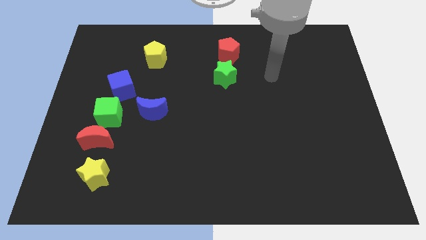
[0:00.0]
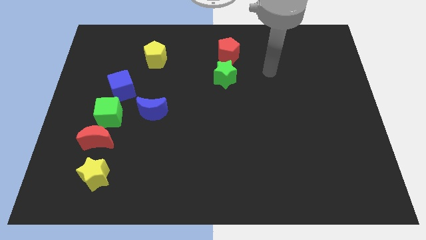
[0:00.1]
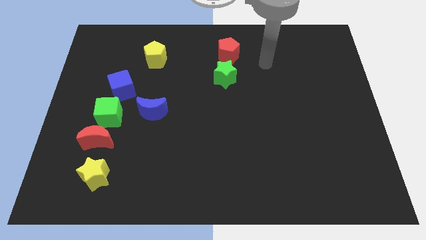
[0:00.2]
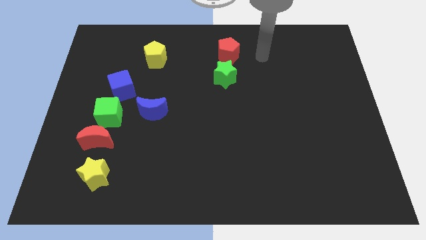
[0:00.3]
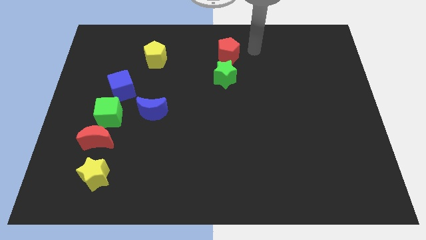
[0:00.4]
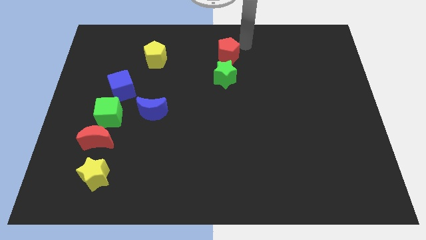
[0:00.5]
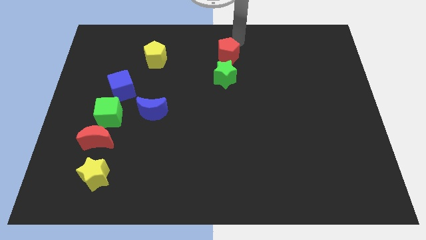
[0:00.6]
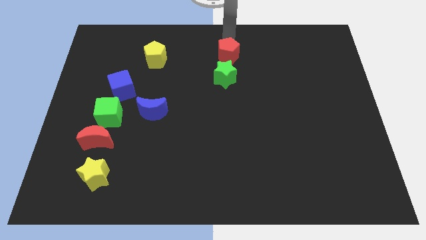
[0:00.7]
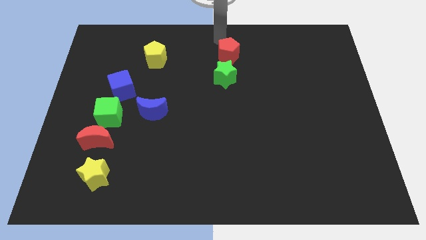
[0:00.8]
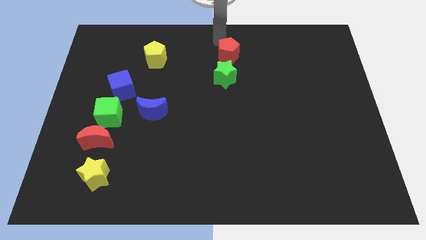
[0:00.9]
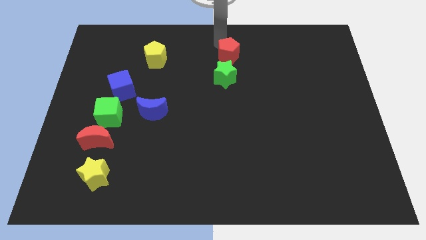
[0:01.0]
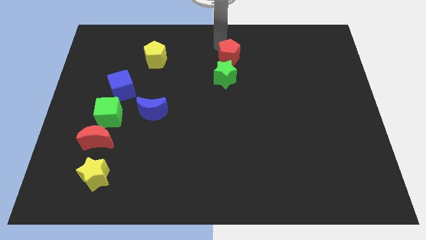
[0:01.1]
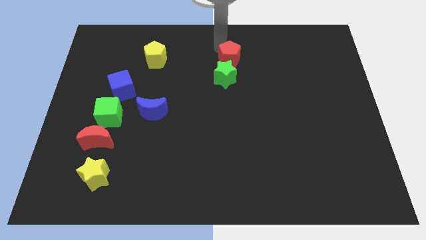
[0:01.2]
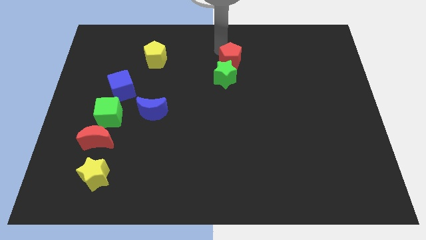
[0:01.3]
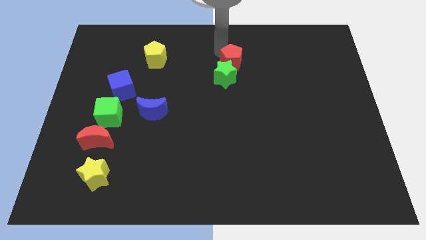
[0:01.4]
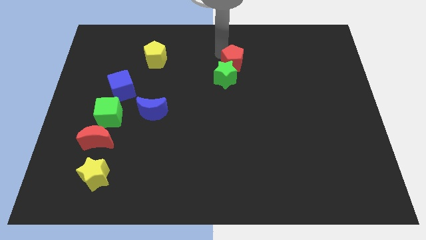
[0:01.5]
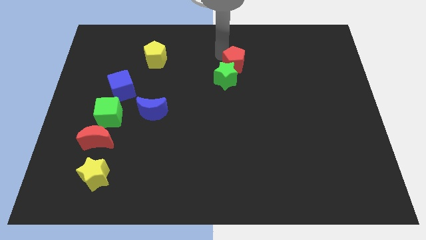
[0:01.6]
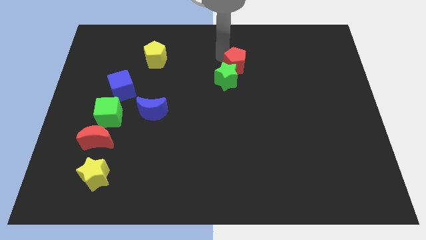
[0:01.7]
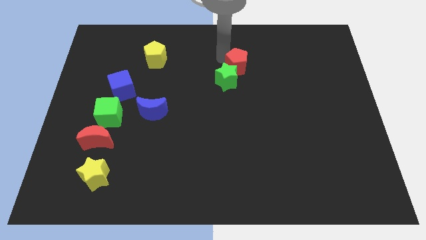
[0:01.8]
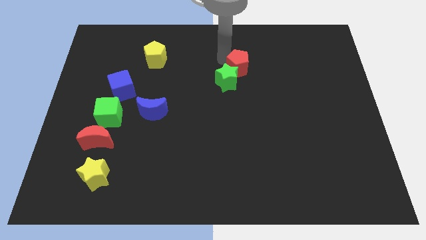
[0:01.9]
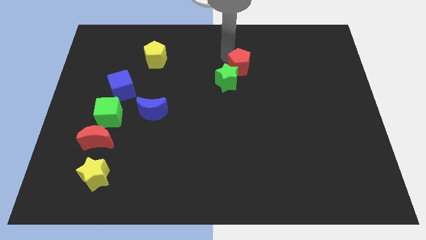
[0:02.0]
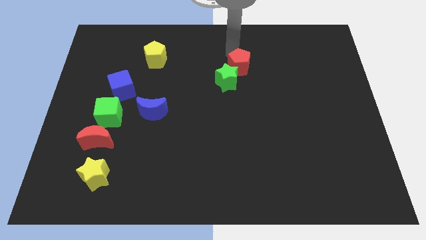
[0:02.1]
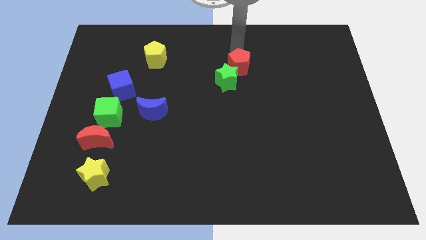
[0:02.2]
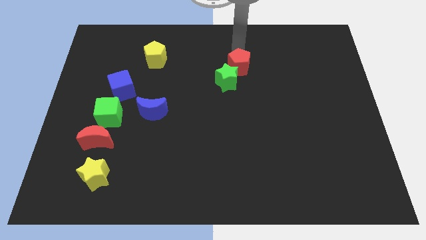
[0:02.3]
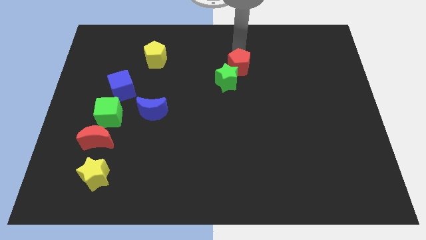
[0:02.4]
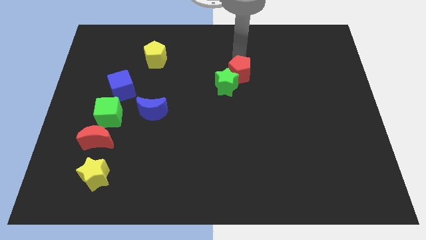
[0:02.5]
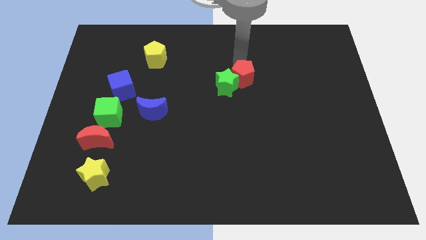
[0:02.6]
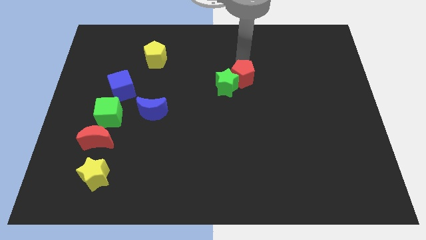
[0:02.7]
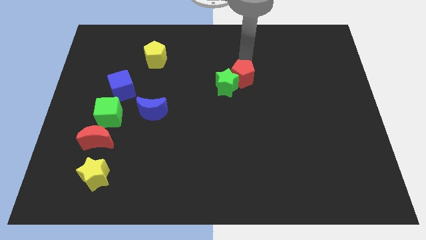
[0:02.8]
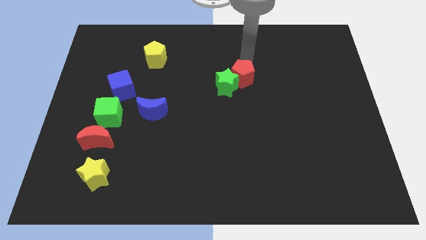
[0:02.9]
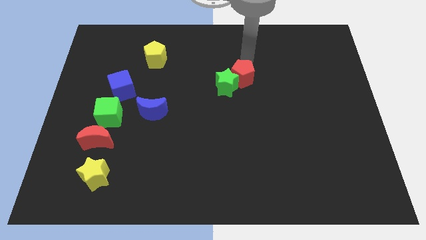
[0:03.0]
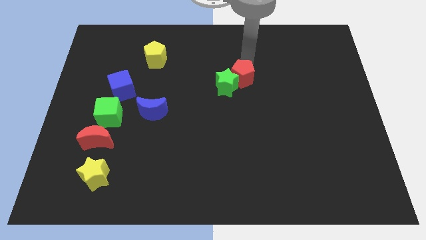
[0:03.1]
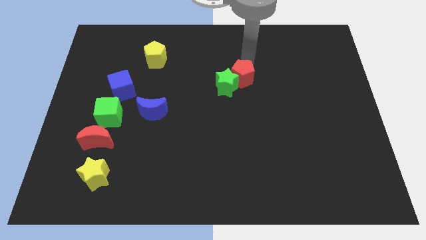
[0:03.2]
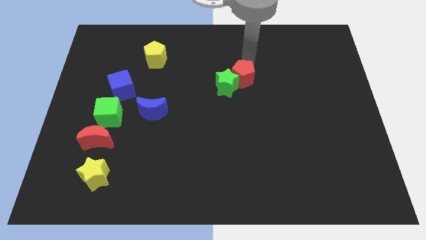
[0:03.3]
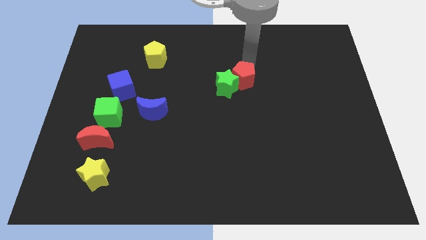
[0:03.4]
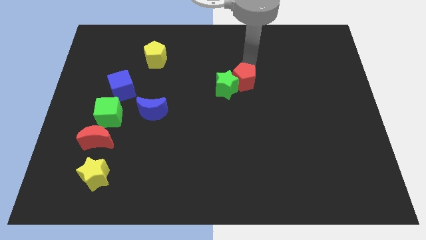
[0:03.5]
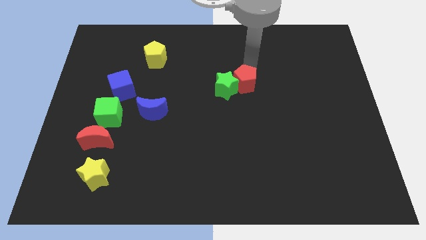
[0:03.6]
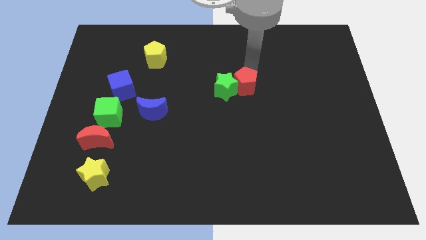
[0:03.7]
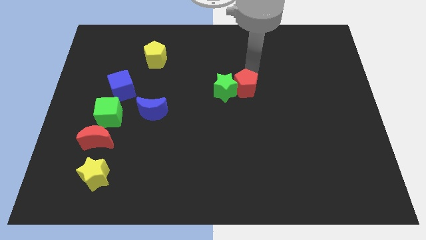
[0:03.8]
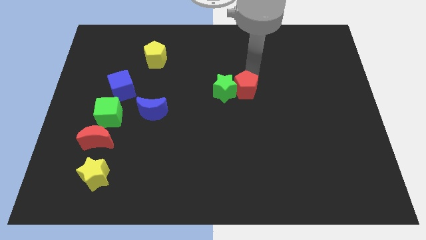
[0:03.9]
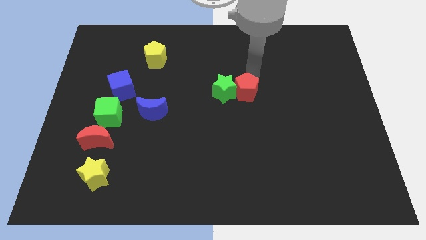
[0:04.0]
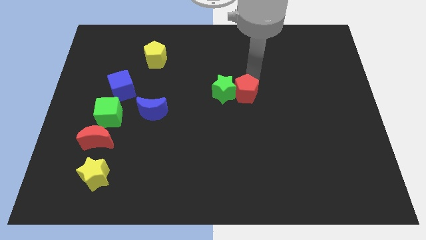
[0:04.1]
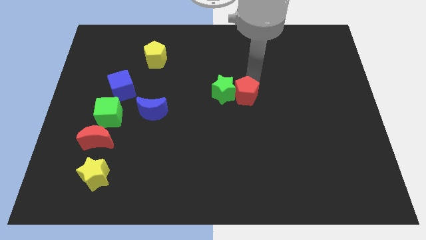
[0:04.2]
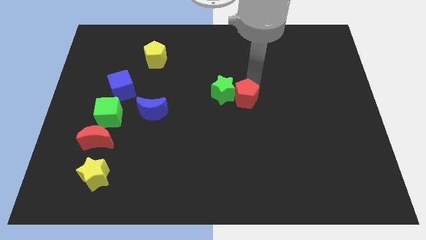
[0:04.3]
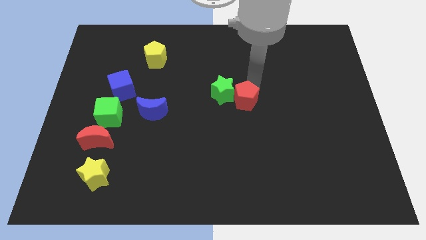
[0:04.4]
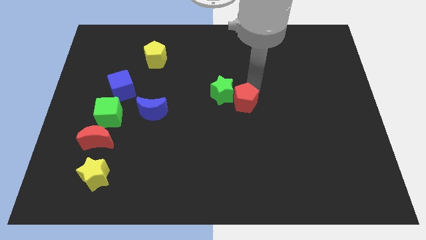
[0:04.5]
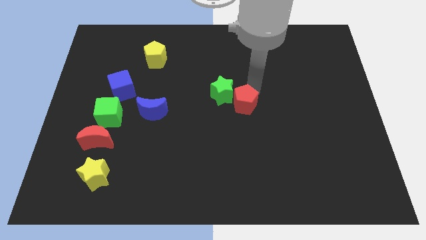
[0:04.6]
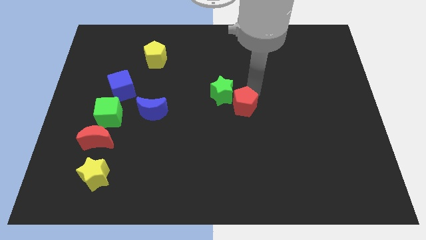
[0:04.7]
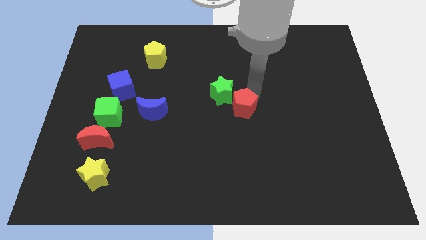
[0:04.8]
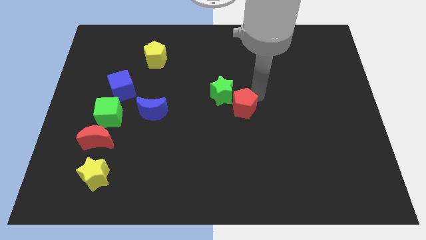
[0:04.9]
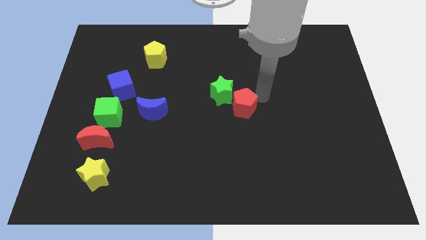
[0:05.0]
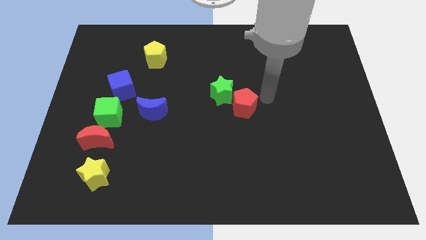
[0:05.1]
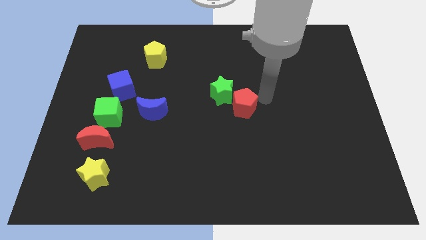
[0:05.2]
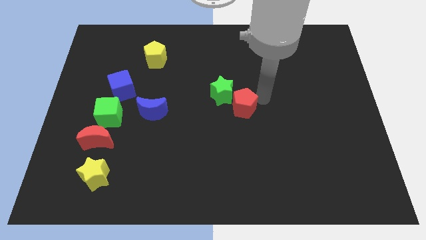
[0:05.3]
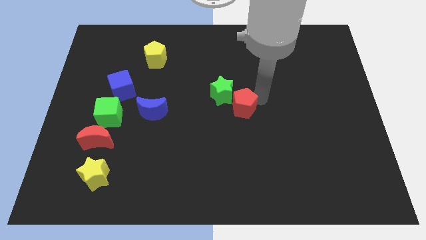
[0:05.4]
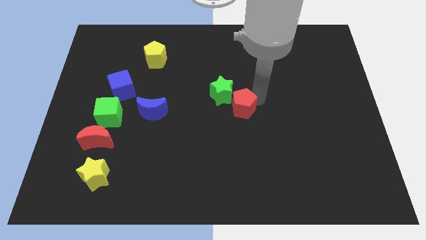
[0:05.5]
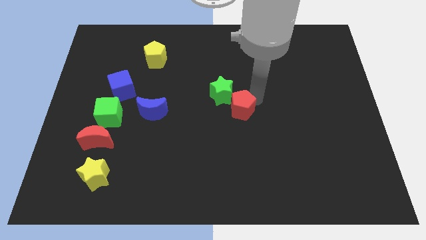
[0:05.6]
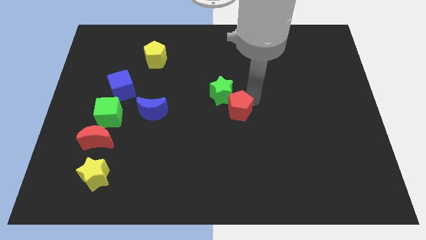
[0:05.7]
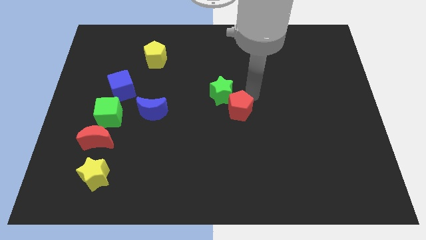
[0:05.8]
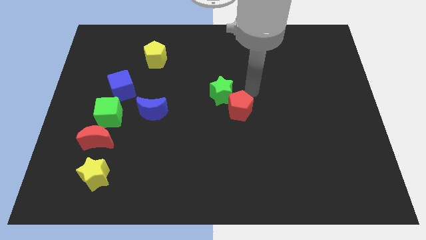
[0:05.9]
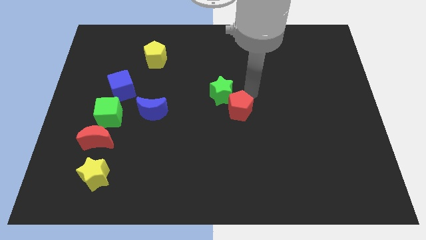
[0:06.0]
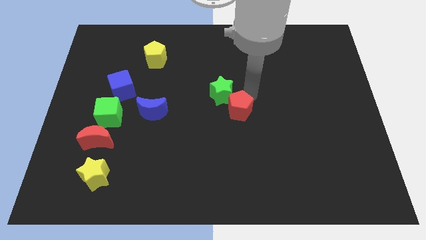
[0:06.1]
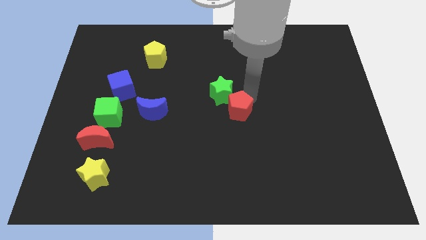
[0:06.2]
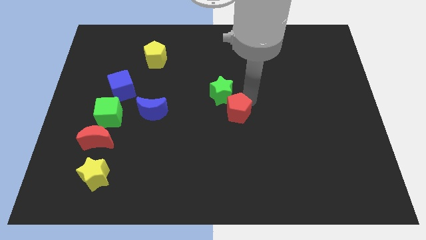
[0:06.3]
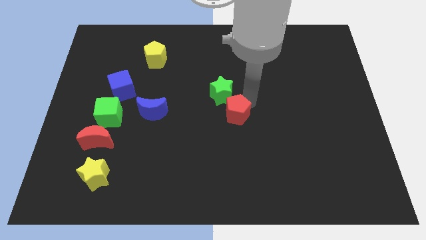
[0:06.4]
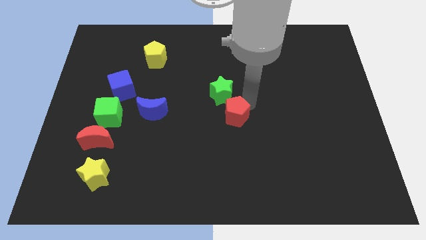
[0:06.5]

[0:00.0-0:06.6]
slide the red pentagon downwards

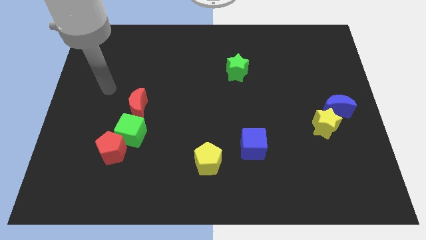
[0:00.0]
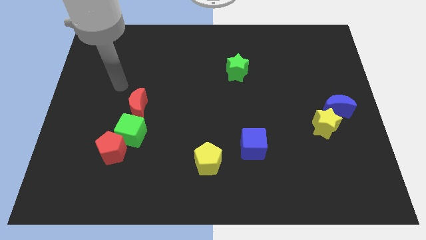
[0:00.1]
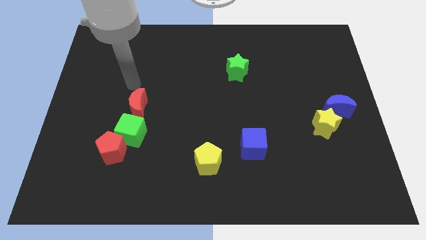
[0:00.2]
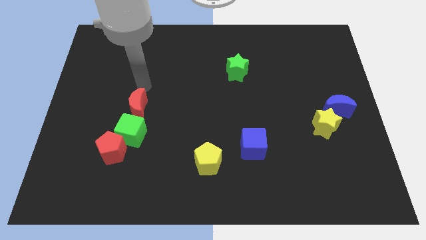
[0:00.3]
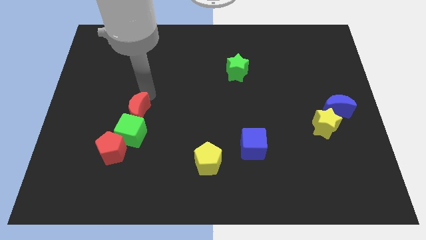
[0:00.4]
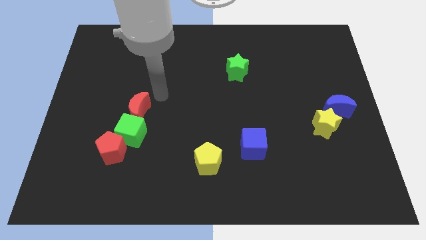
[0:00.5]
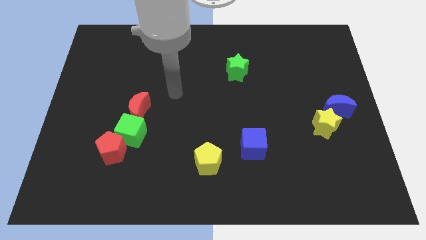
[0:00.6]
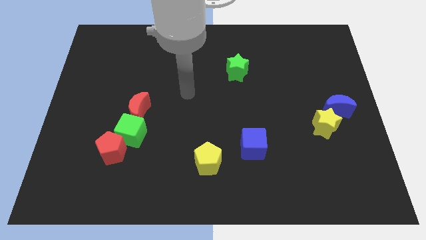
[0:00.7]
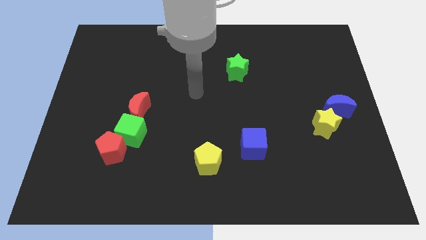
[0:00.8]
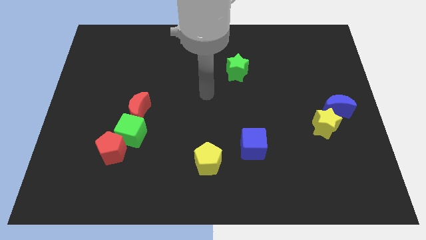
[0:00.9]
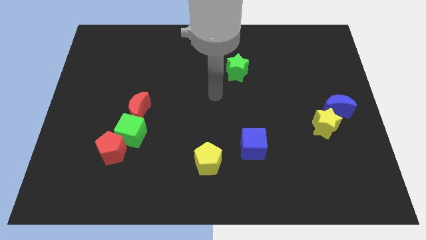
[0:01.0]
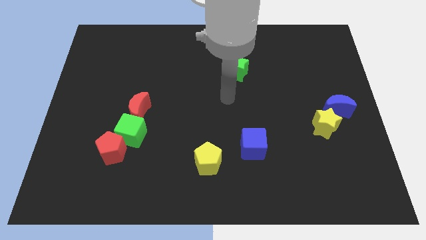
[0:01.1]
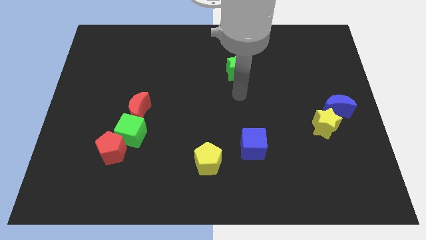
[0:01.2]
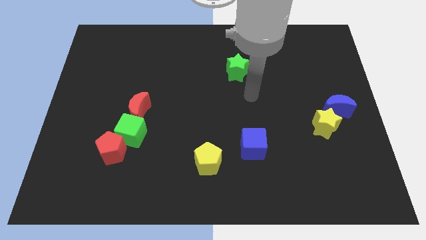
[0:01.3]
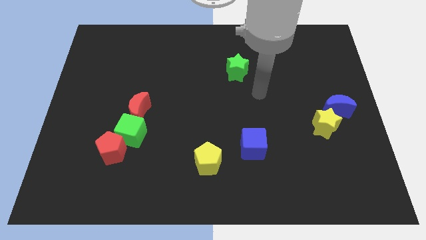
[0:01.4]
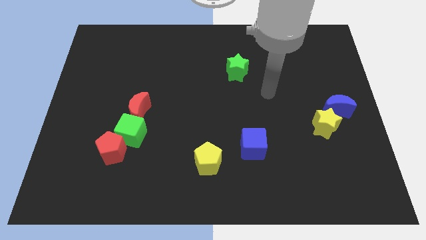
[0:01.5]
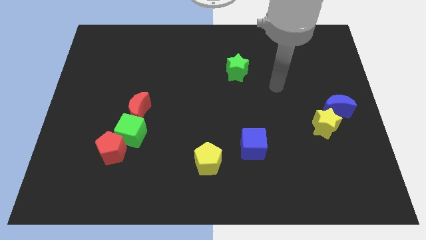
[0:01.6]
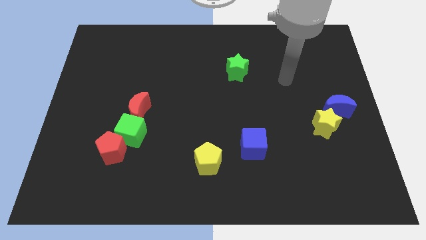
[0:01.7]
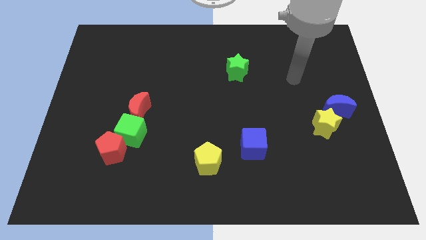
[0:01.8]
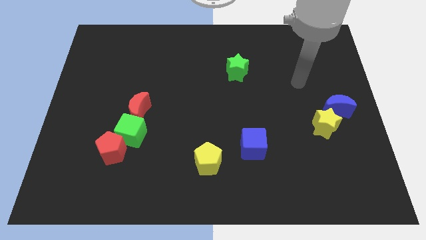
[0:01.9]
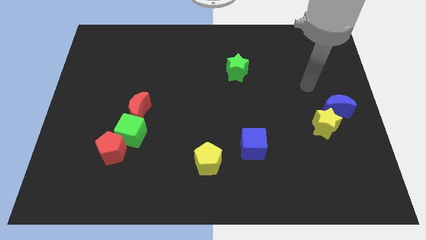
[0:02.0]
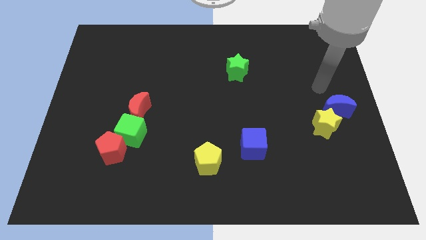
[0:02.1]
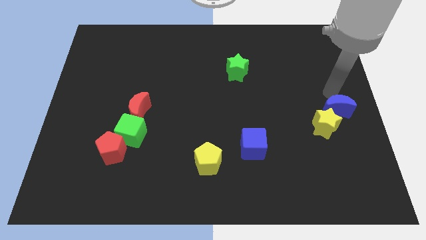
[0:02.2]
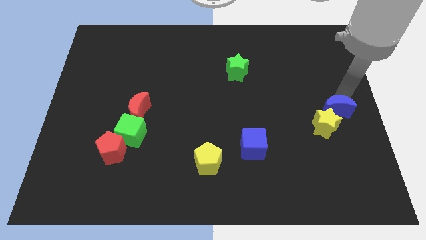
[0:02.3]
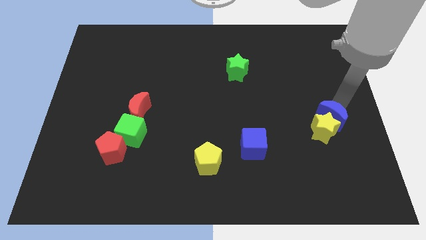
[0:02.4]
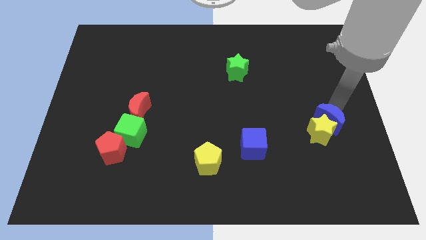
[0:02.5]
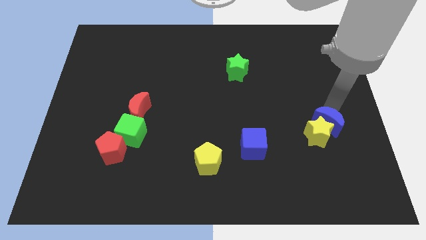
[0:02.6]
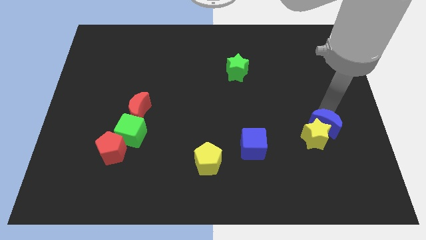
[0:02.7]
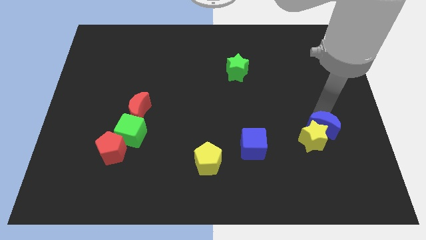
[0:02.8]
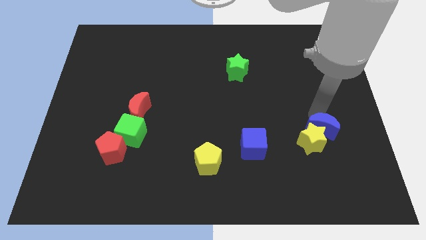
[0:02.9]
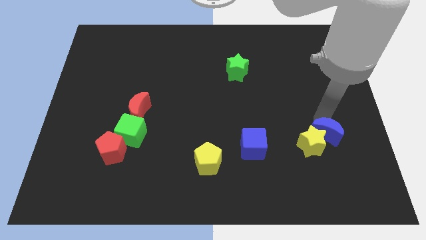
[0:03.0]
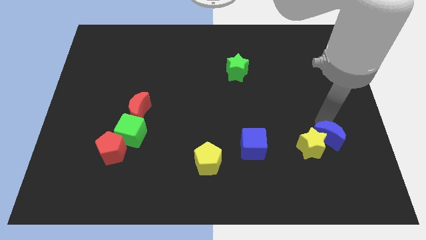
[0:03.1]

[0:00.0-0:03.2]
move the yellow star a bit downwards and left
